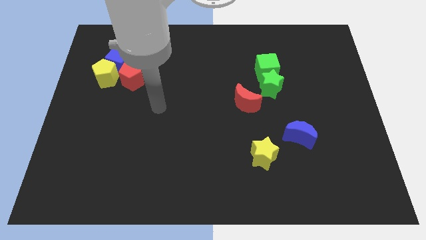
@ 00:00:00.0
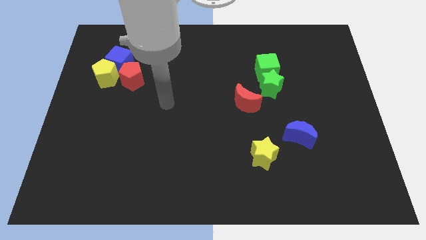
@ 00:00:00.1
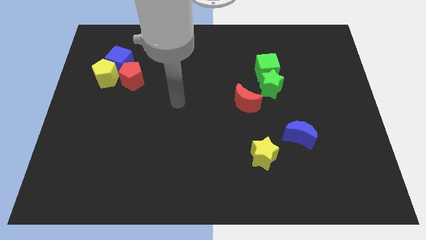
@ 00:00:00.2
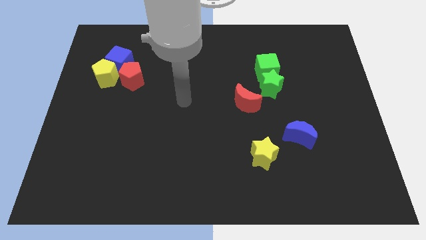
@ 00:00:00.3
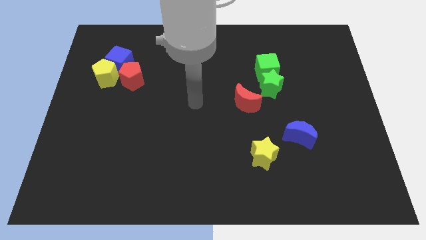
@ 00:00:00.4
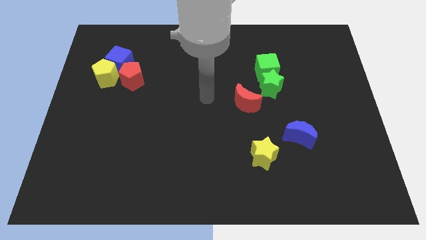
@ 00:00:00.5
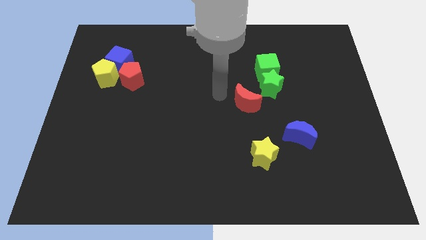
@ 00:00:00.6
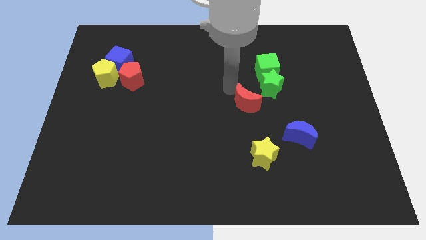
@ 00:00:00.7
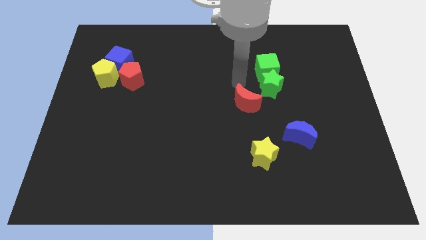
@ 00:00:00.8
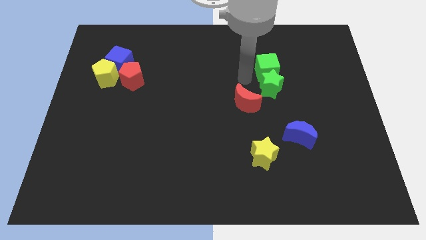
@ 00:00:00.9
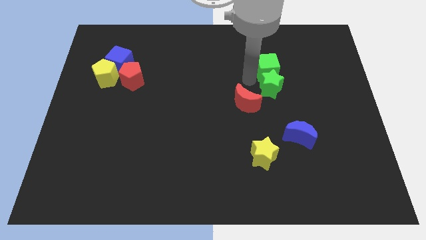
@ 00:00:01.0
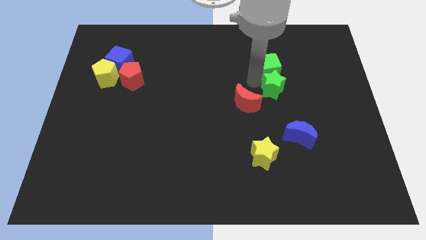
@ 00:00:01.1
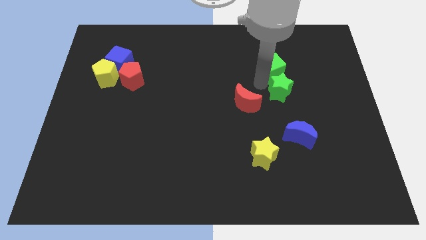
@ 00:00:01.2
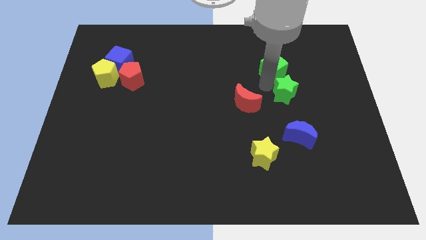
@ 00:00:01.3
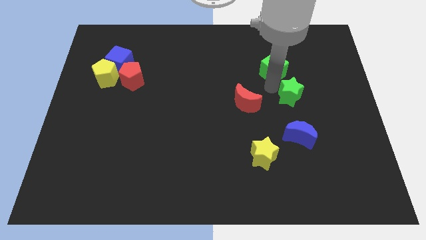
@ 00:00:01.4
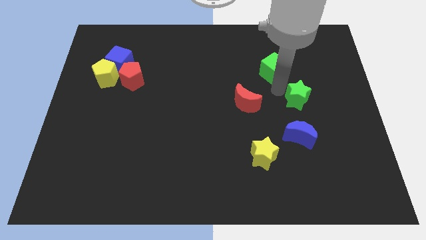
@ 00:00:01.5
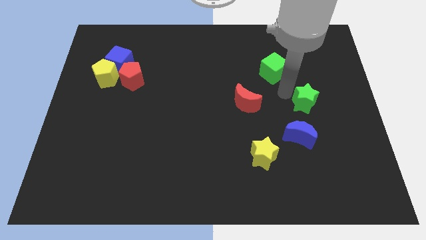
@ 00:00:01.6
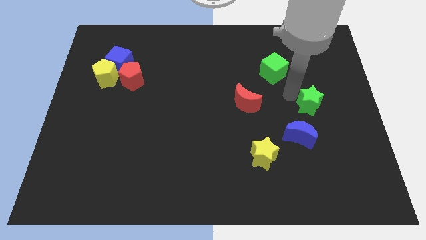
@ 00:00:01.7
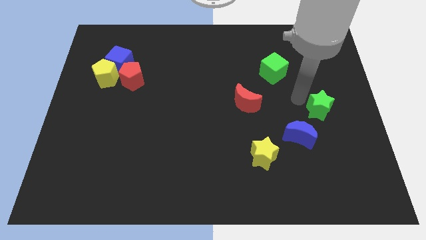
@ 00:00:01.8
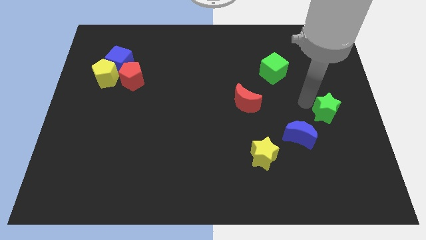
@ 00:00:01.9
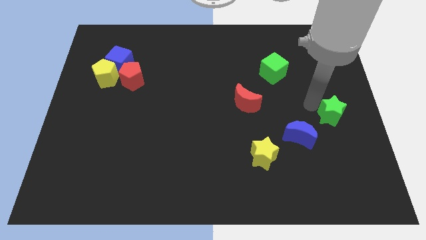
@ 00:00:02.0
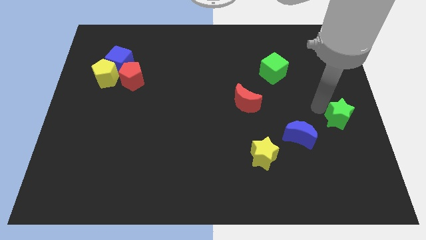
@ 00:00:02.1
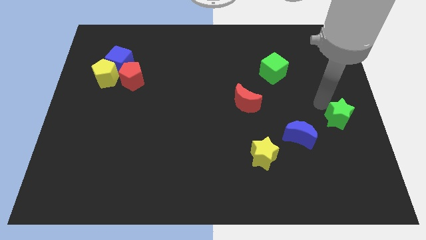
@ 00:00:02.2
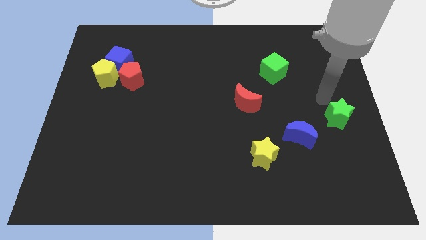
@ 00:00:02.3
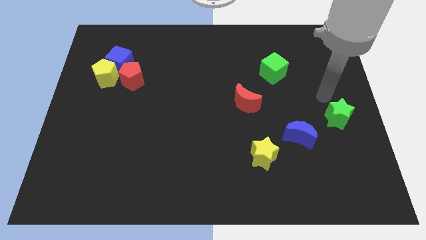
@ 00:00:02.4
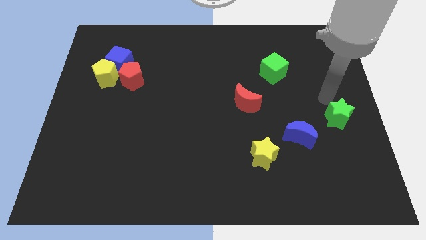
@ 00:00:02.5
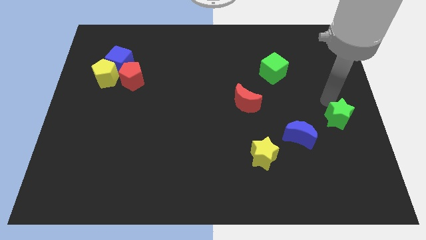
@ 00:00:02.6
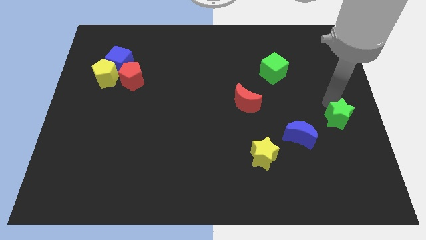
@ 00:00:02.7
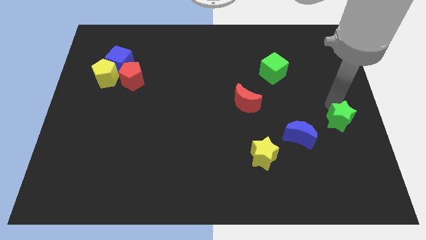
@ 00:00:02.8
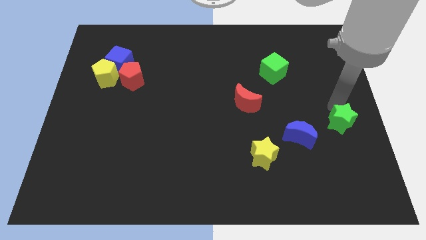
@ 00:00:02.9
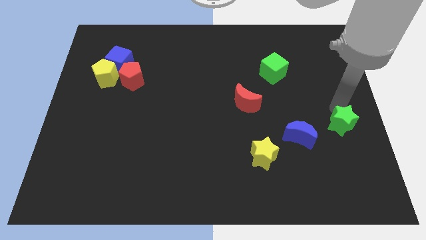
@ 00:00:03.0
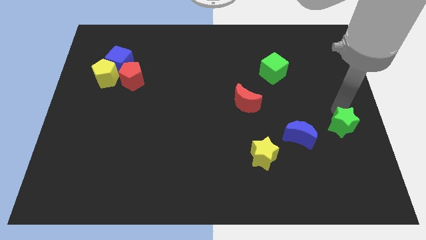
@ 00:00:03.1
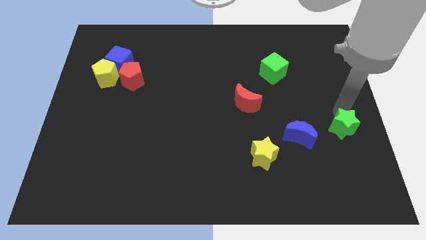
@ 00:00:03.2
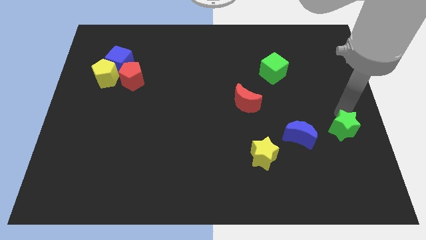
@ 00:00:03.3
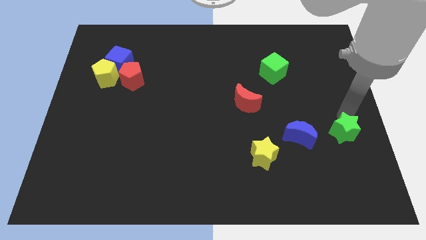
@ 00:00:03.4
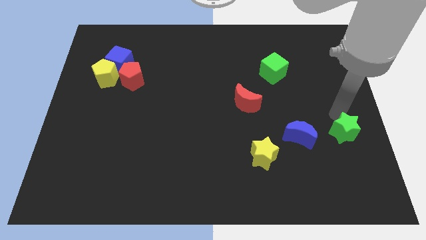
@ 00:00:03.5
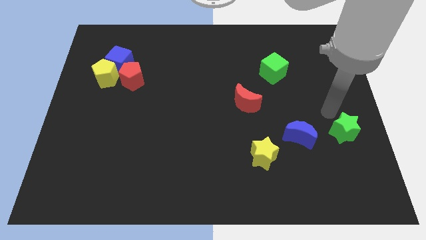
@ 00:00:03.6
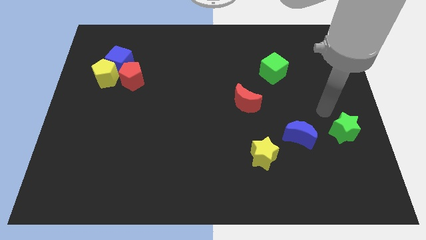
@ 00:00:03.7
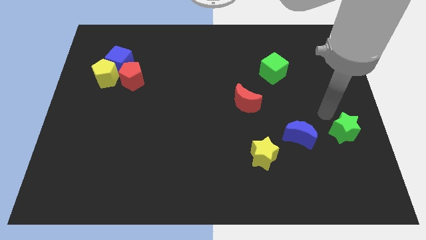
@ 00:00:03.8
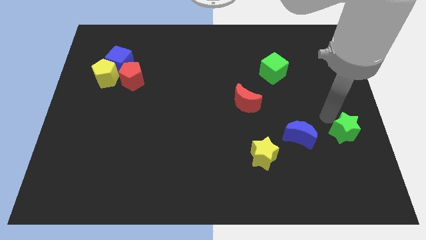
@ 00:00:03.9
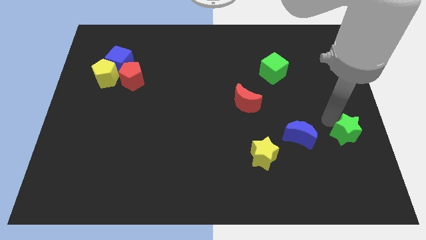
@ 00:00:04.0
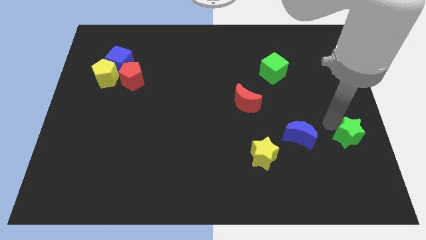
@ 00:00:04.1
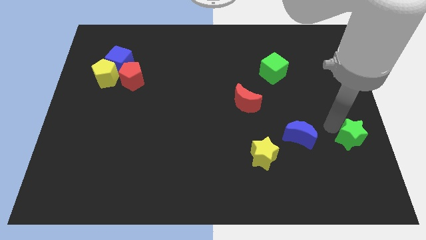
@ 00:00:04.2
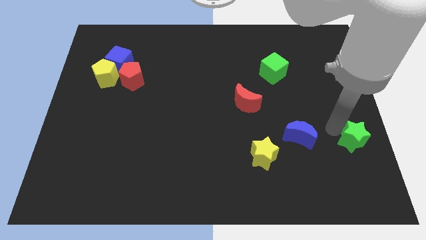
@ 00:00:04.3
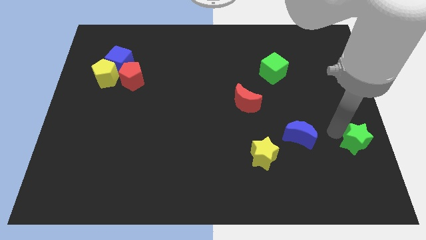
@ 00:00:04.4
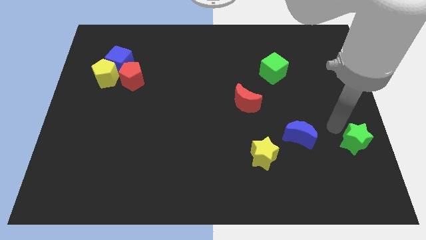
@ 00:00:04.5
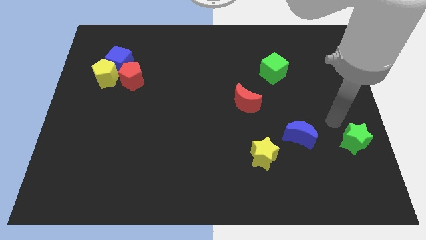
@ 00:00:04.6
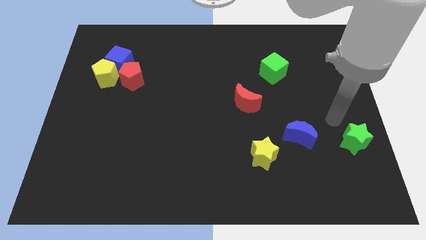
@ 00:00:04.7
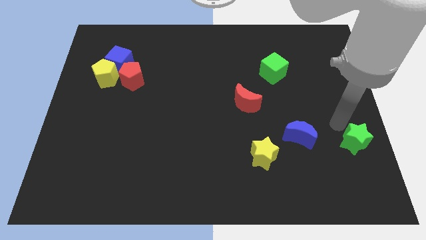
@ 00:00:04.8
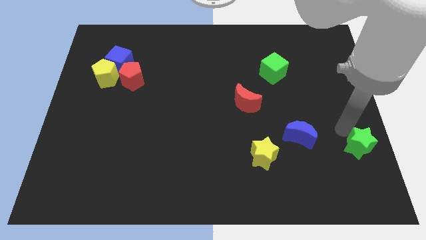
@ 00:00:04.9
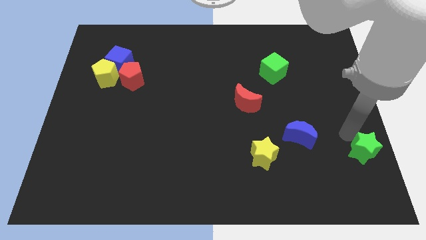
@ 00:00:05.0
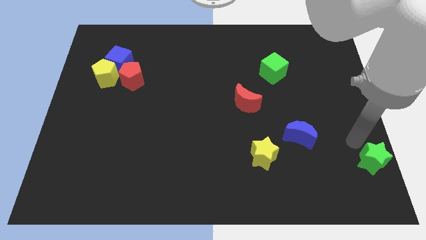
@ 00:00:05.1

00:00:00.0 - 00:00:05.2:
push the green star to the bottom right
